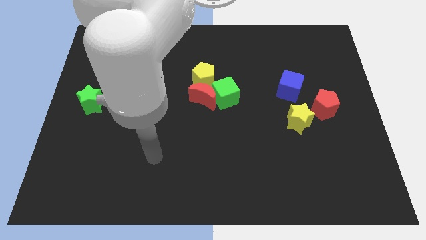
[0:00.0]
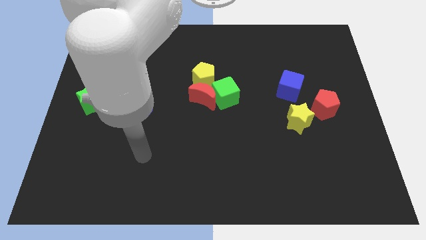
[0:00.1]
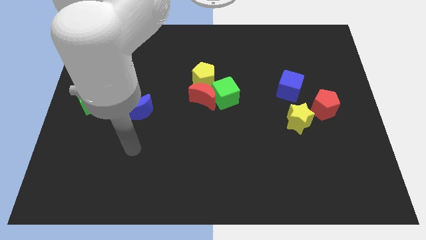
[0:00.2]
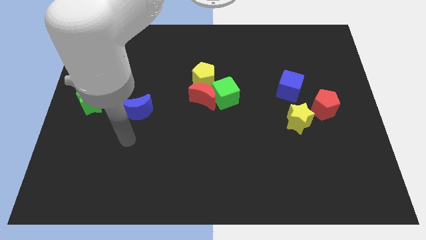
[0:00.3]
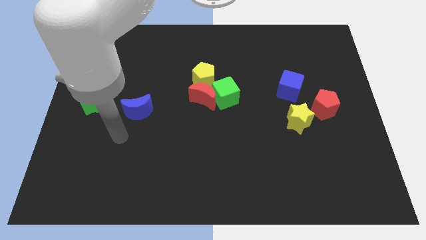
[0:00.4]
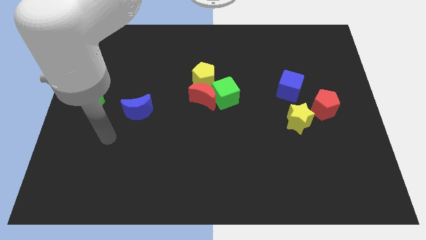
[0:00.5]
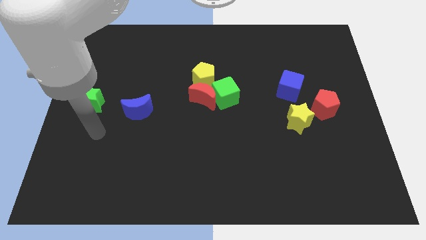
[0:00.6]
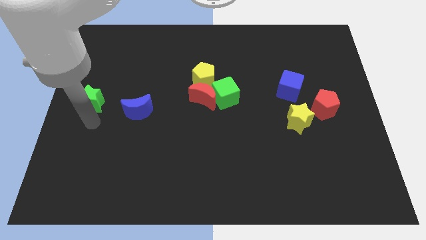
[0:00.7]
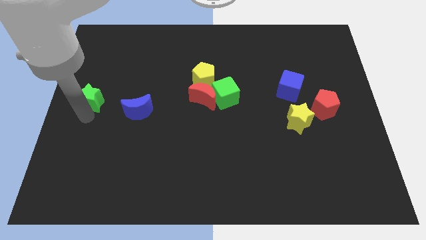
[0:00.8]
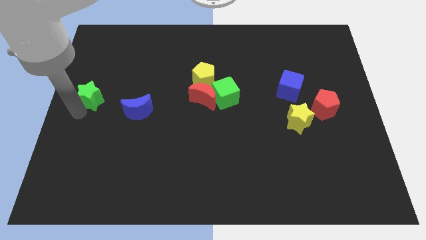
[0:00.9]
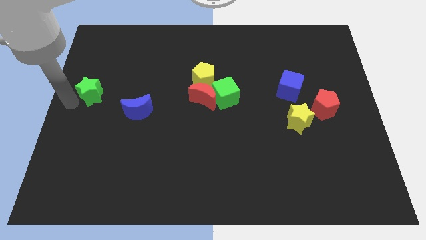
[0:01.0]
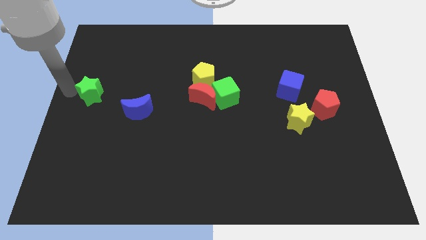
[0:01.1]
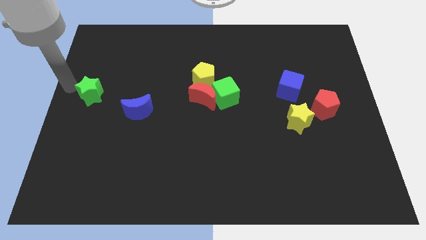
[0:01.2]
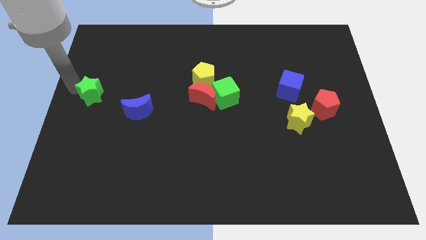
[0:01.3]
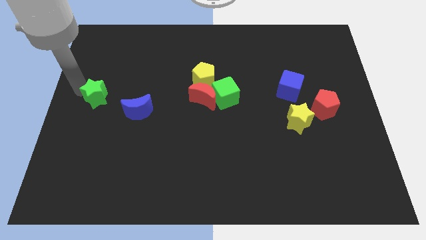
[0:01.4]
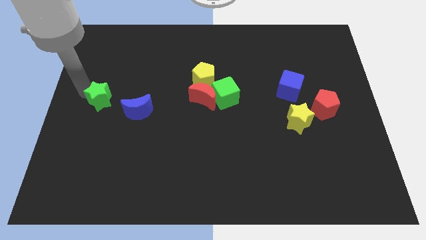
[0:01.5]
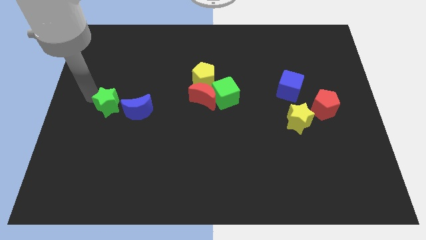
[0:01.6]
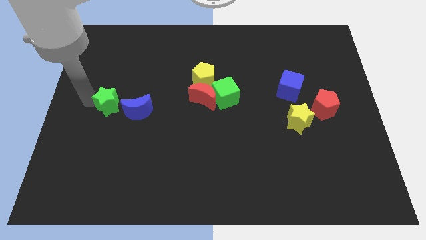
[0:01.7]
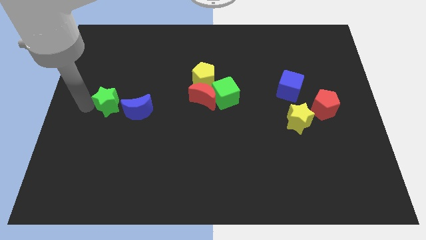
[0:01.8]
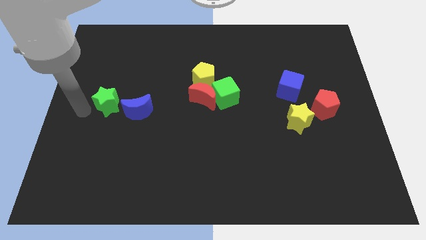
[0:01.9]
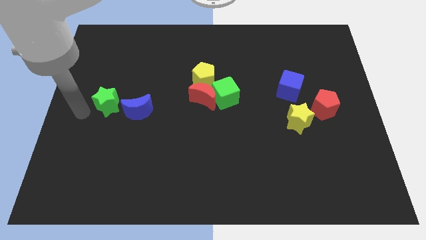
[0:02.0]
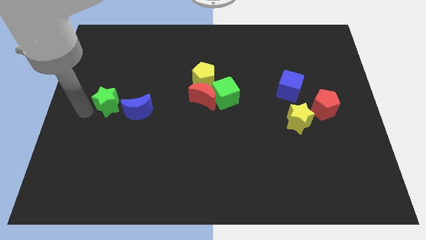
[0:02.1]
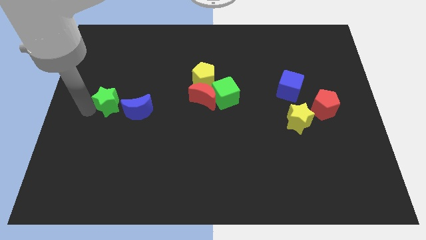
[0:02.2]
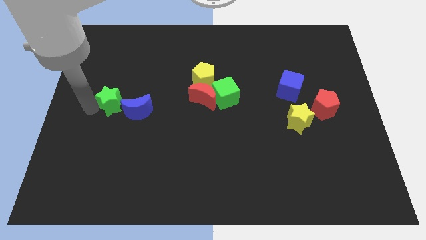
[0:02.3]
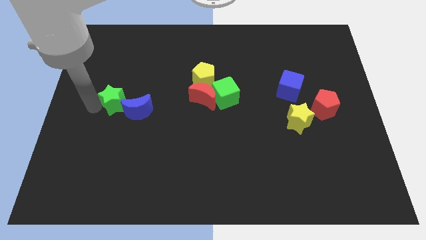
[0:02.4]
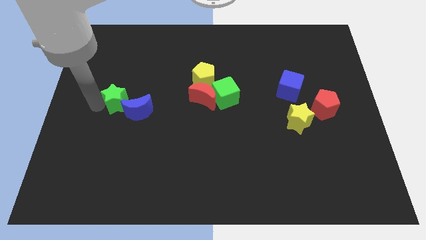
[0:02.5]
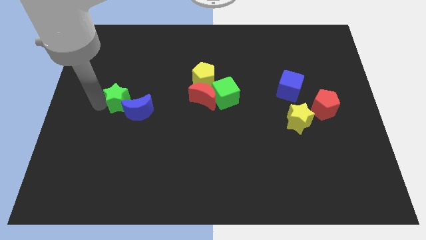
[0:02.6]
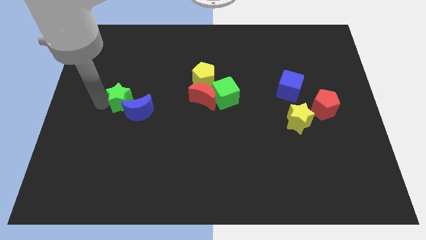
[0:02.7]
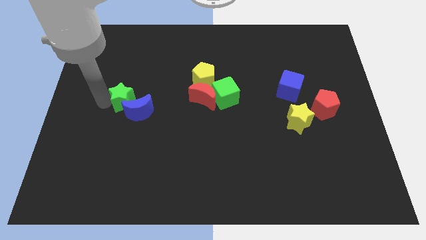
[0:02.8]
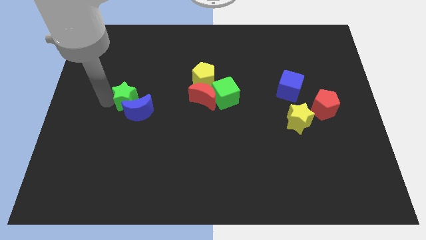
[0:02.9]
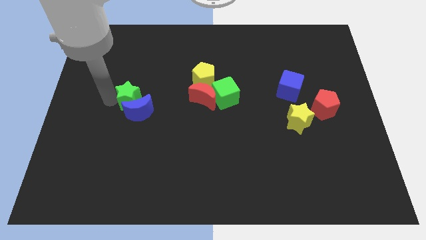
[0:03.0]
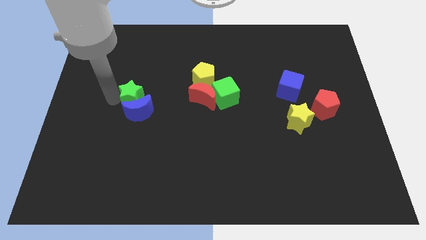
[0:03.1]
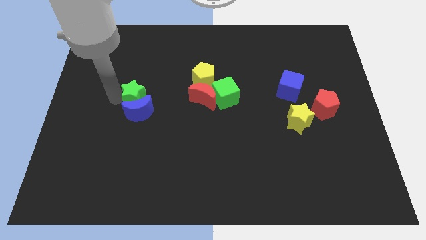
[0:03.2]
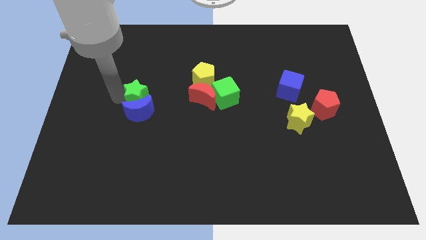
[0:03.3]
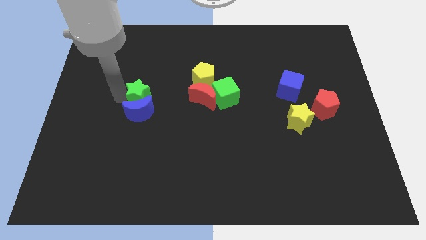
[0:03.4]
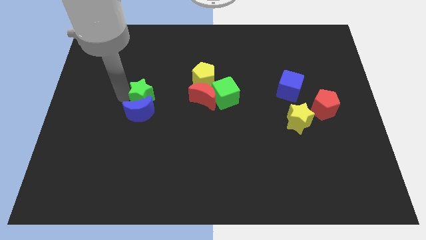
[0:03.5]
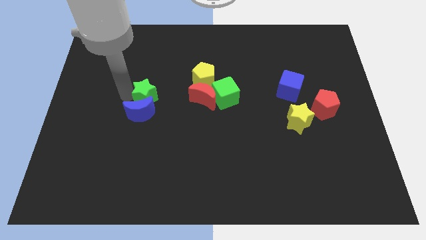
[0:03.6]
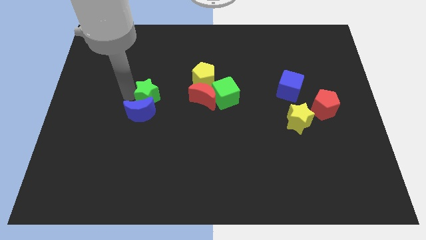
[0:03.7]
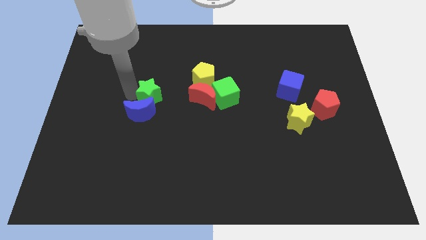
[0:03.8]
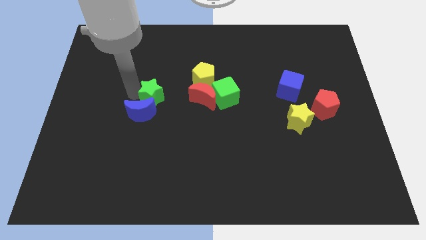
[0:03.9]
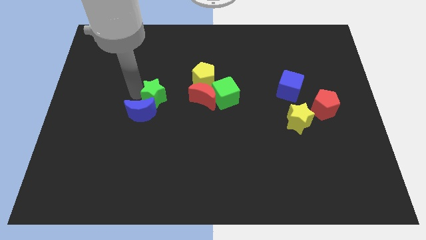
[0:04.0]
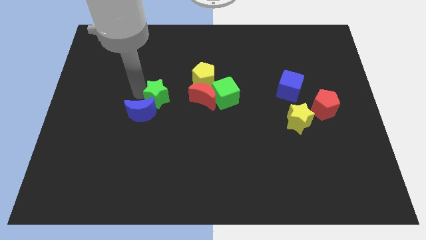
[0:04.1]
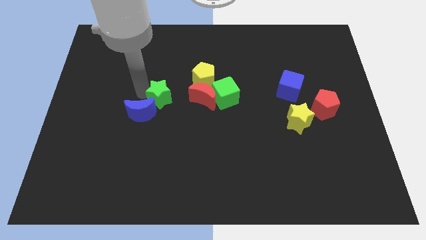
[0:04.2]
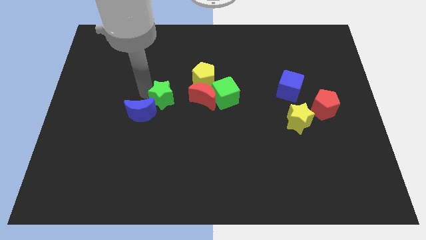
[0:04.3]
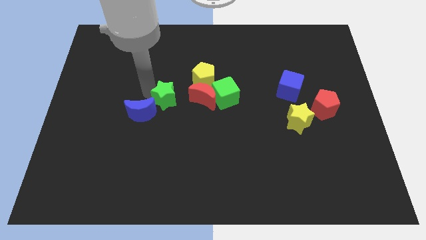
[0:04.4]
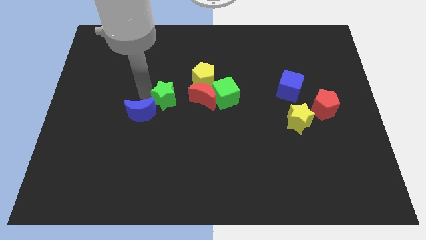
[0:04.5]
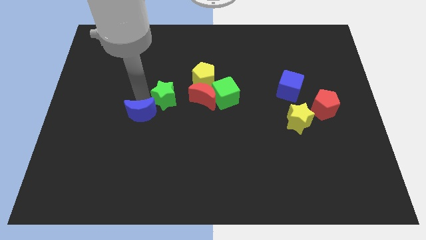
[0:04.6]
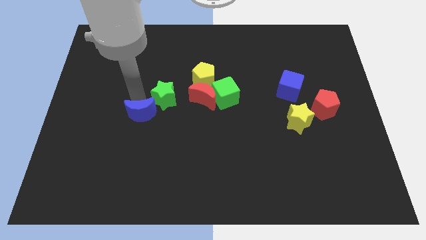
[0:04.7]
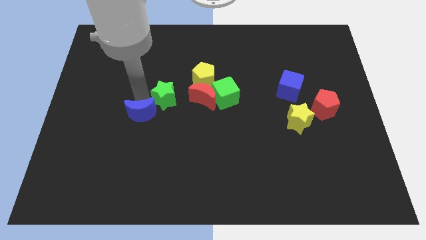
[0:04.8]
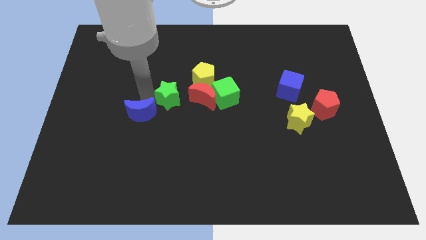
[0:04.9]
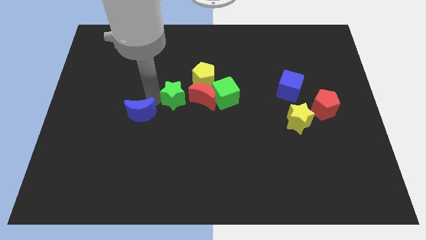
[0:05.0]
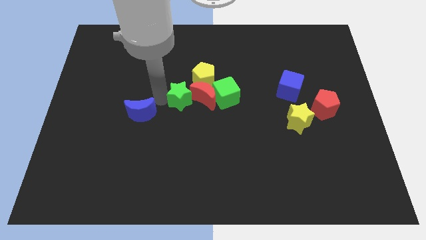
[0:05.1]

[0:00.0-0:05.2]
put the green star towards the red moon

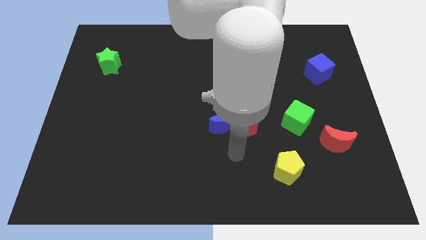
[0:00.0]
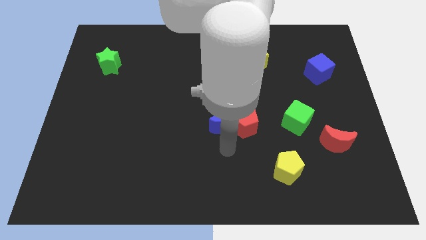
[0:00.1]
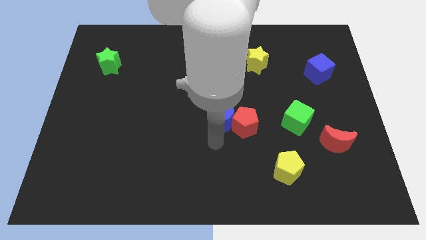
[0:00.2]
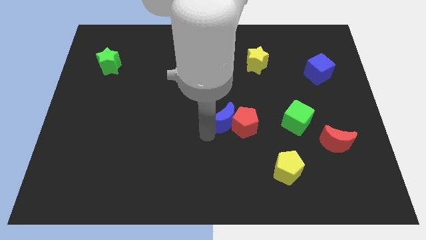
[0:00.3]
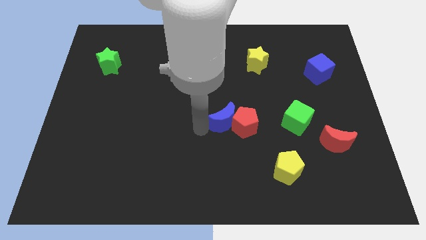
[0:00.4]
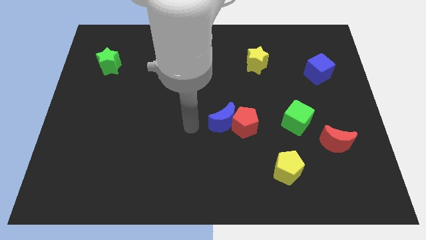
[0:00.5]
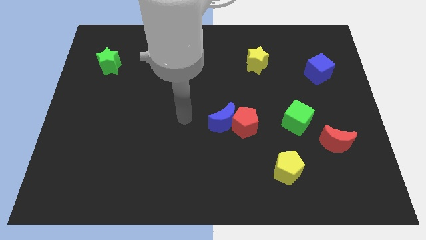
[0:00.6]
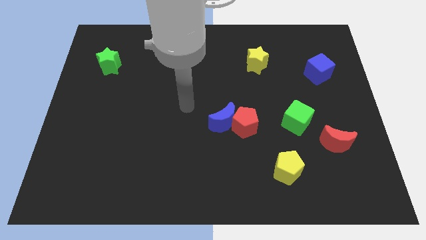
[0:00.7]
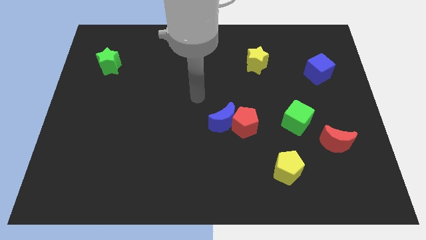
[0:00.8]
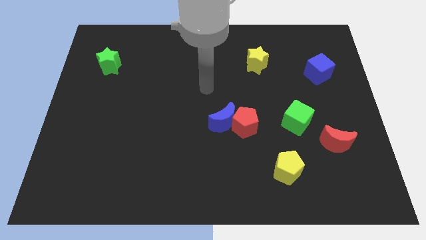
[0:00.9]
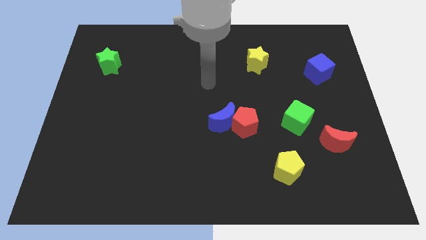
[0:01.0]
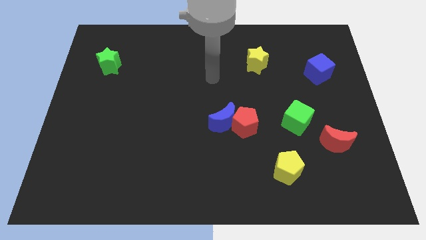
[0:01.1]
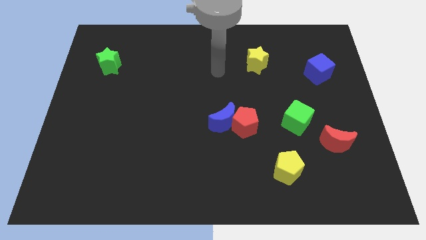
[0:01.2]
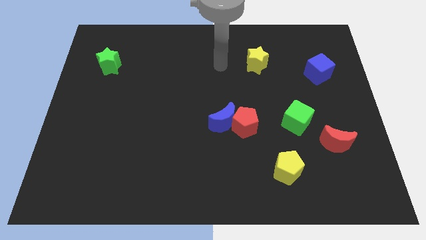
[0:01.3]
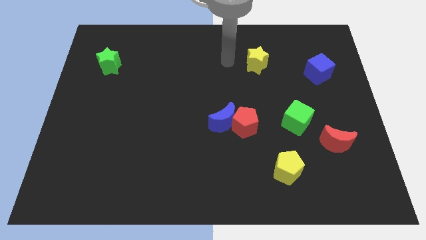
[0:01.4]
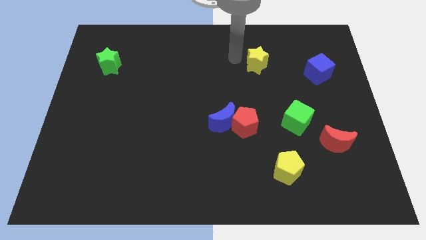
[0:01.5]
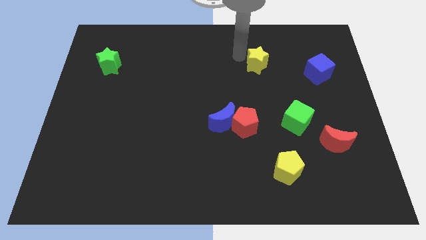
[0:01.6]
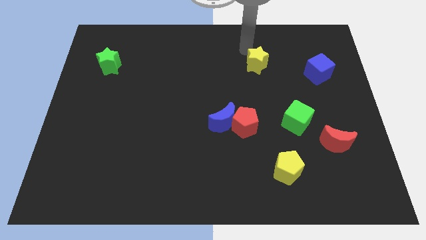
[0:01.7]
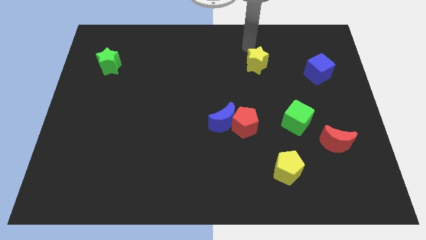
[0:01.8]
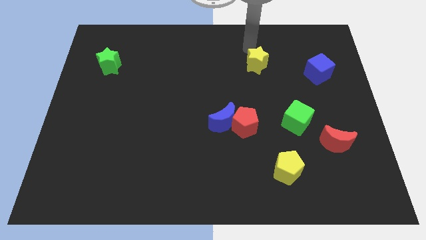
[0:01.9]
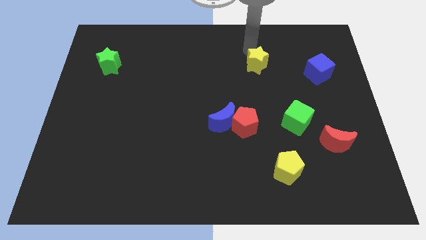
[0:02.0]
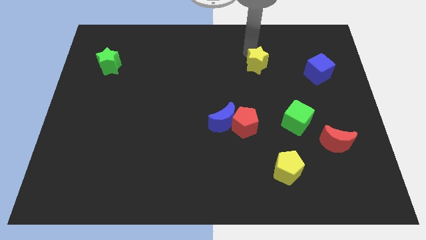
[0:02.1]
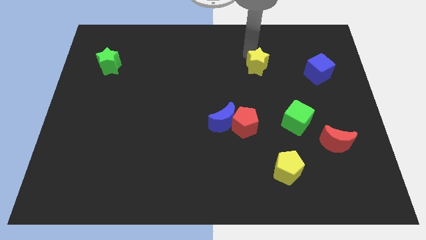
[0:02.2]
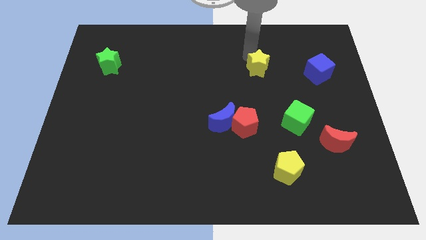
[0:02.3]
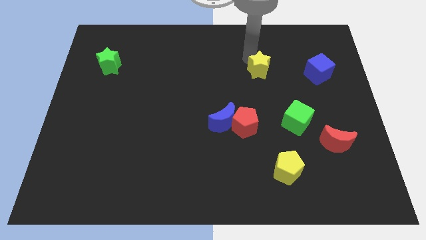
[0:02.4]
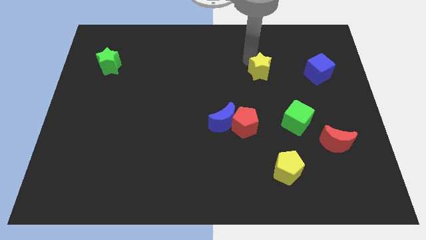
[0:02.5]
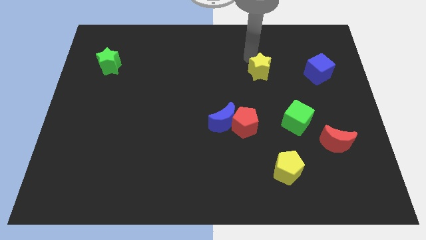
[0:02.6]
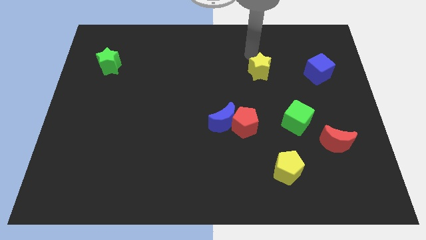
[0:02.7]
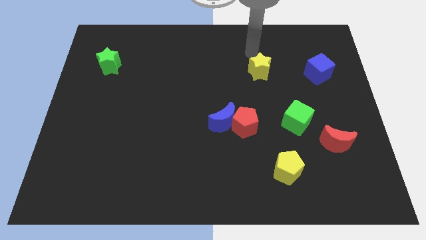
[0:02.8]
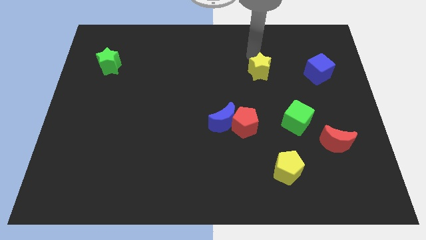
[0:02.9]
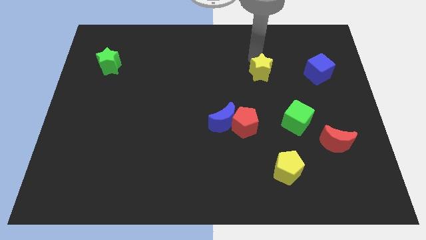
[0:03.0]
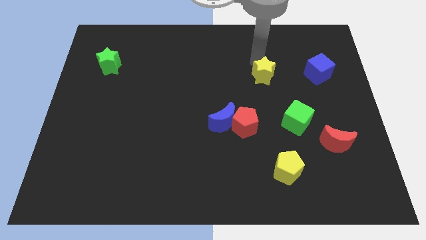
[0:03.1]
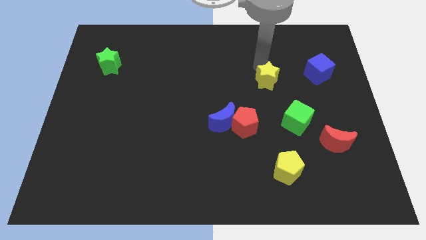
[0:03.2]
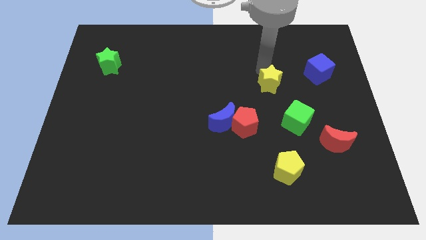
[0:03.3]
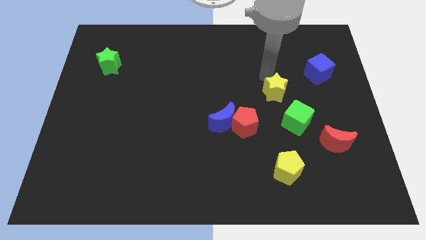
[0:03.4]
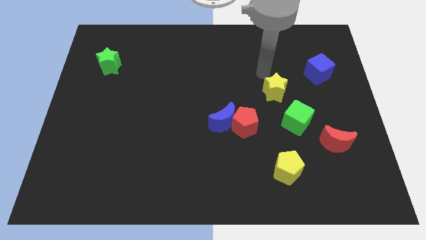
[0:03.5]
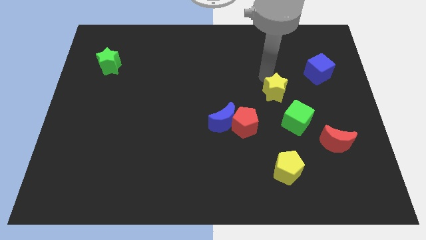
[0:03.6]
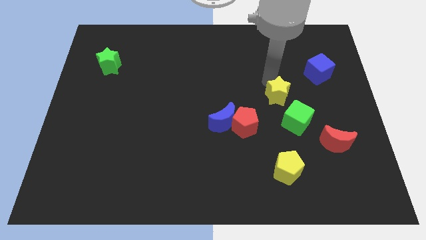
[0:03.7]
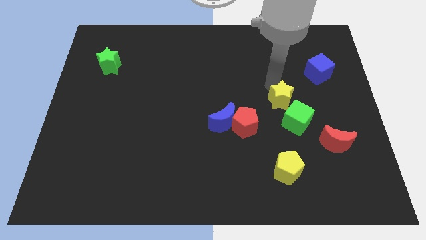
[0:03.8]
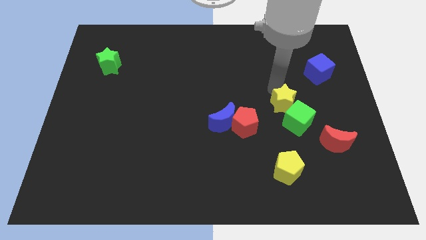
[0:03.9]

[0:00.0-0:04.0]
push the yellow star towards the green cube
